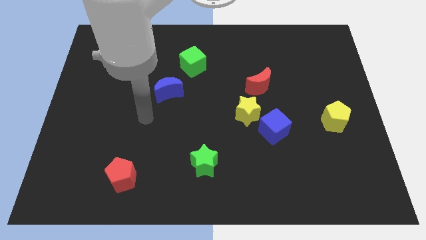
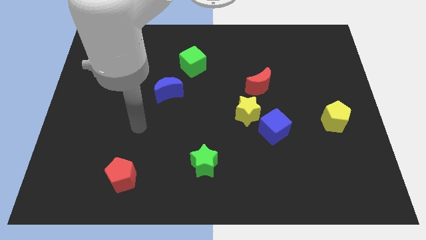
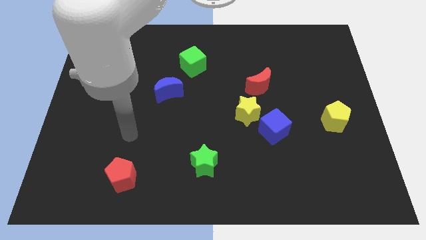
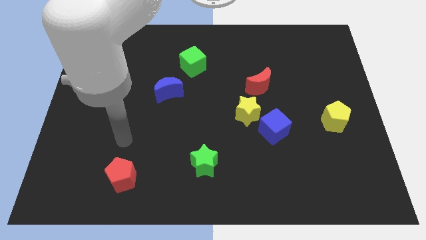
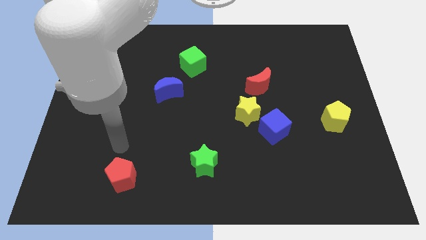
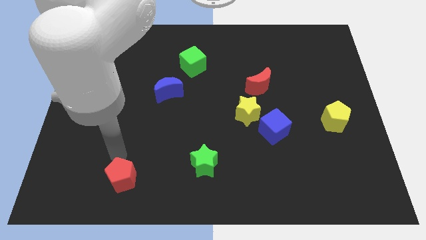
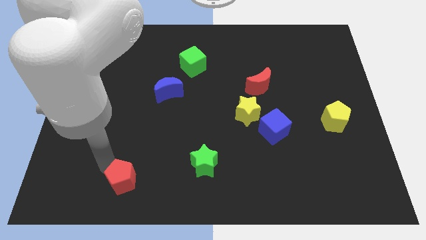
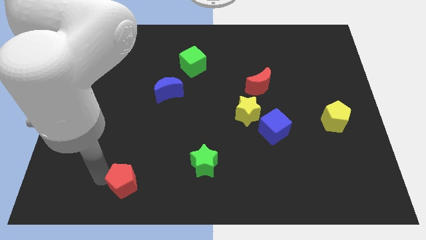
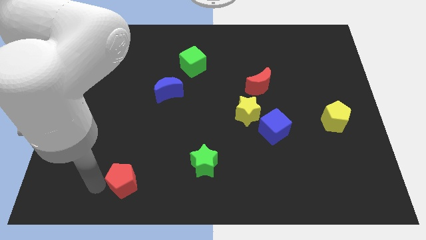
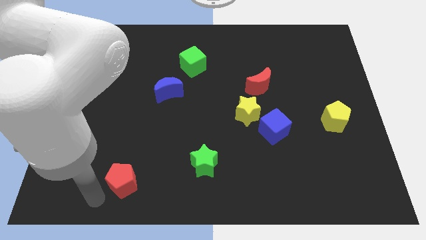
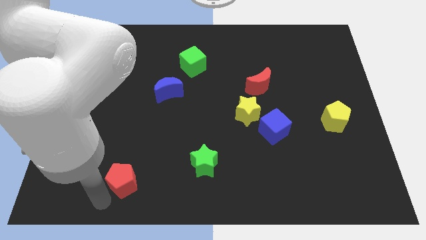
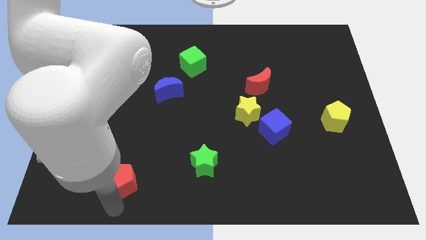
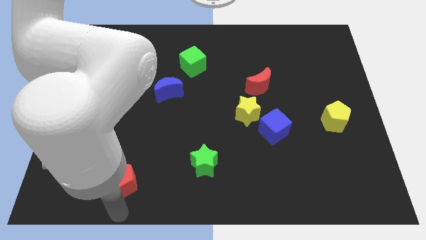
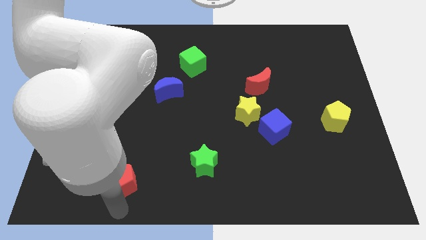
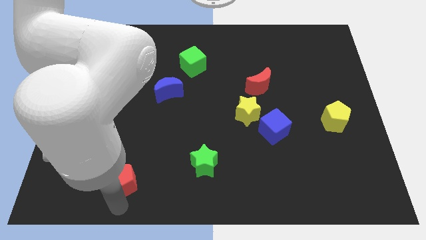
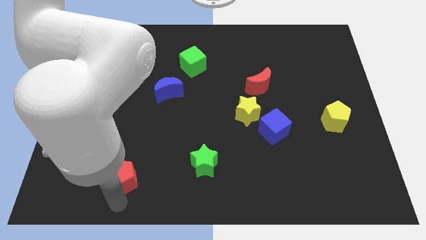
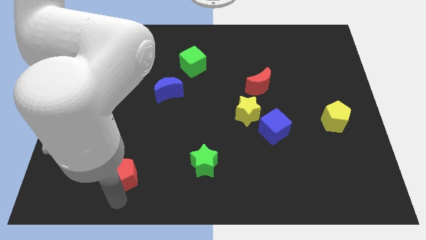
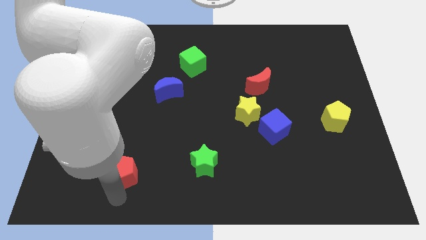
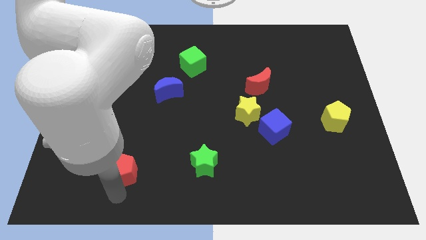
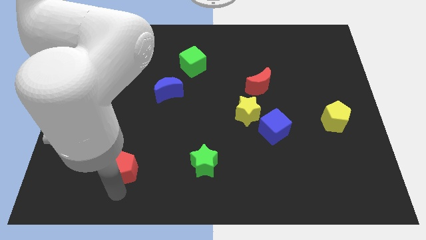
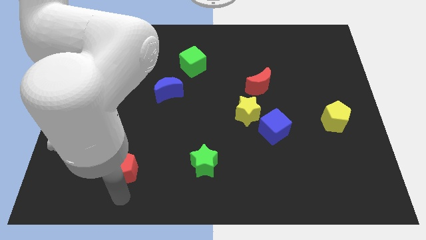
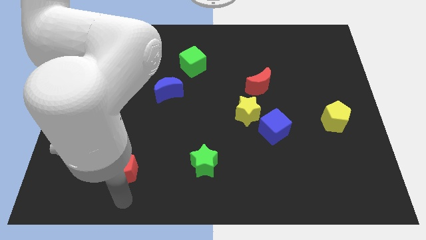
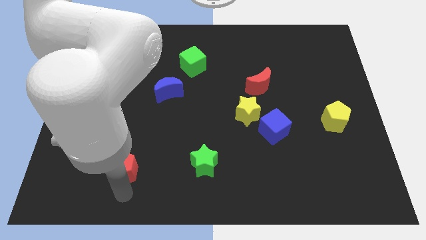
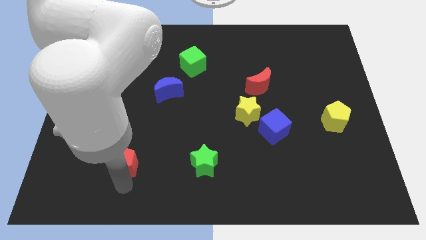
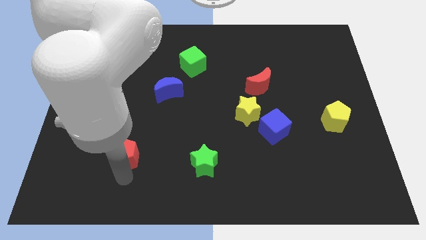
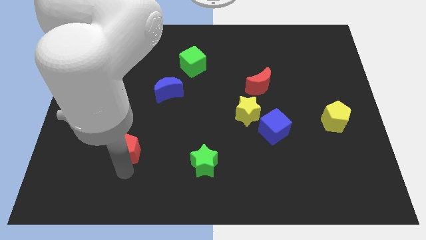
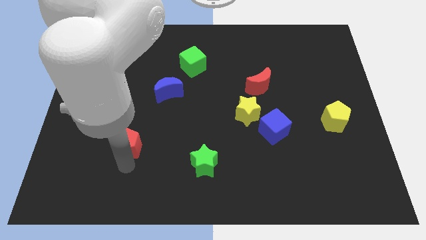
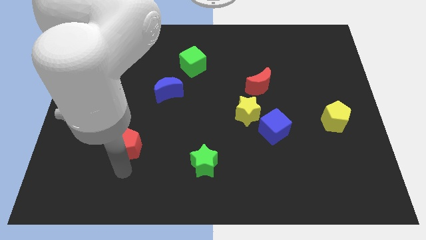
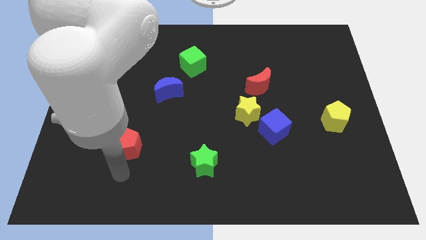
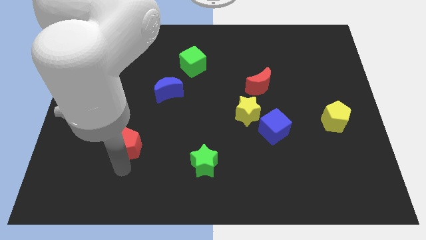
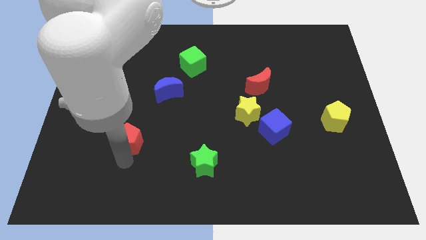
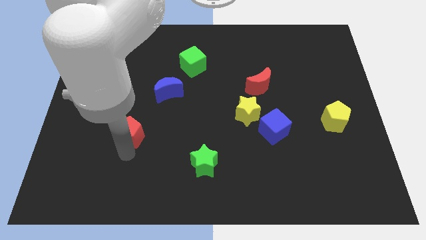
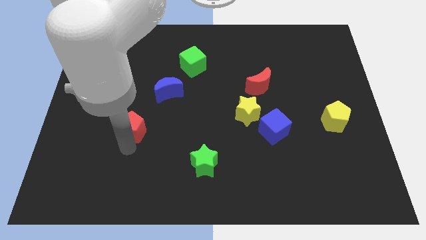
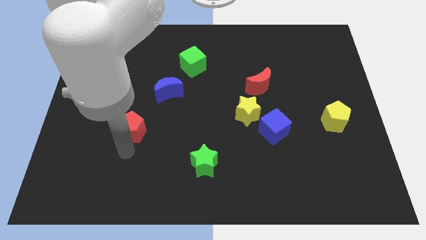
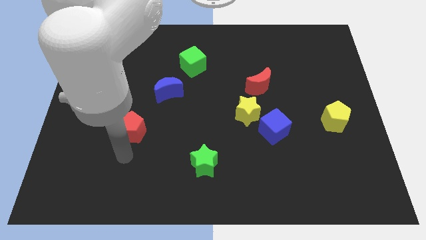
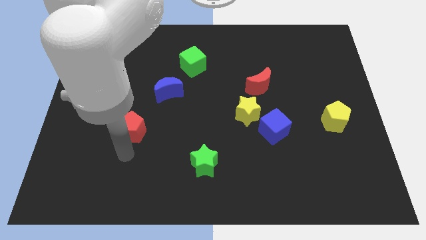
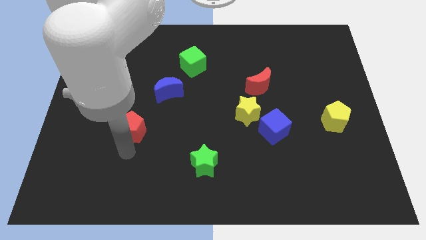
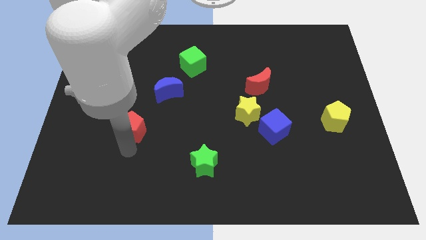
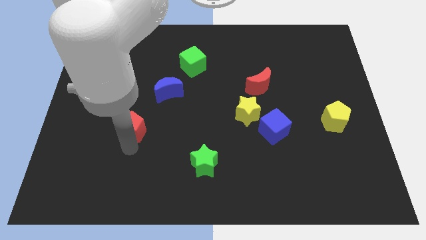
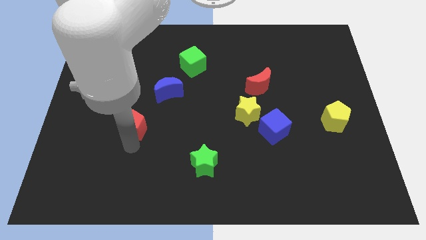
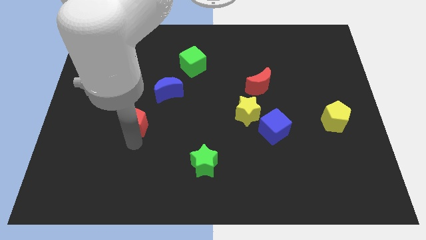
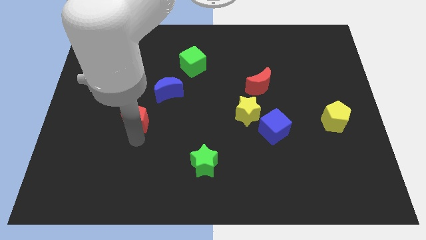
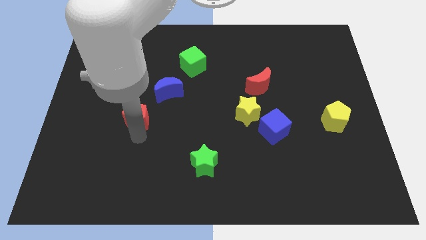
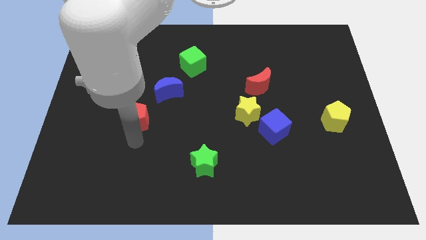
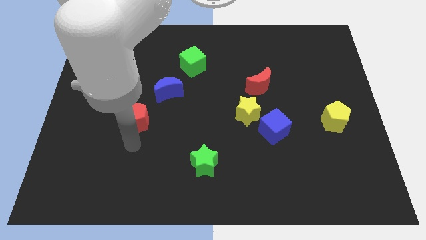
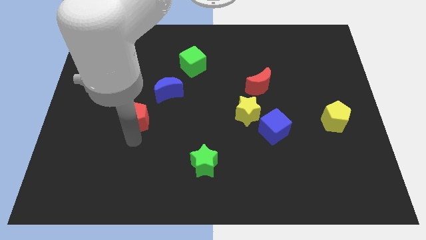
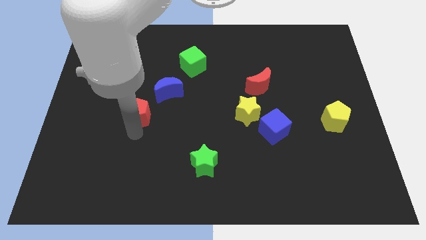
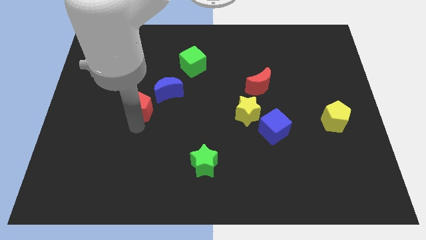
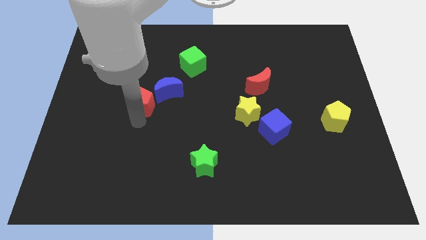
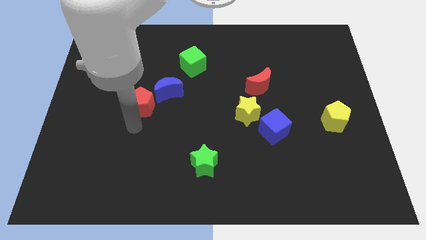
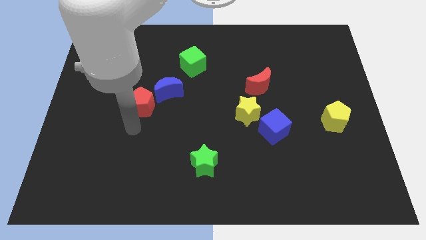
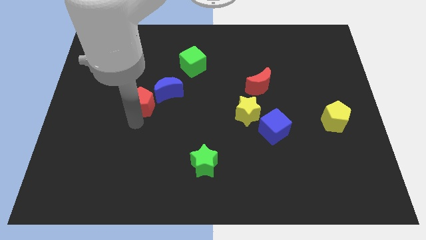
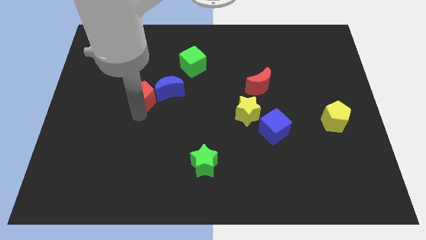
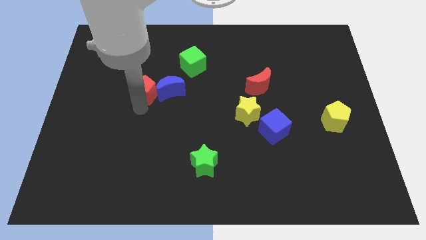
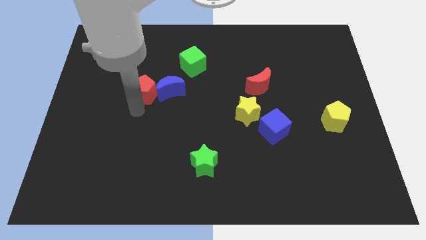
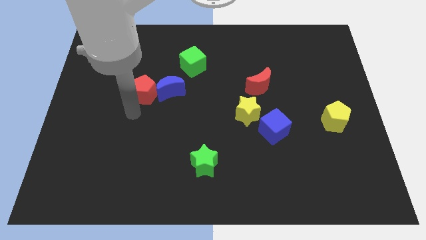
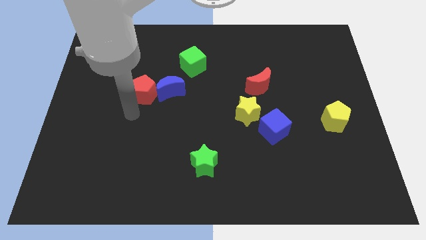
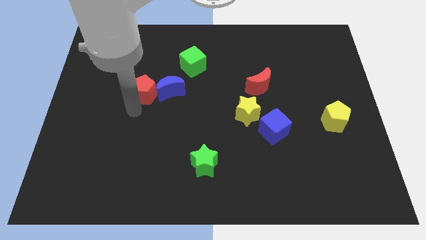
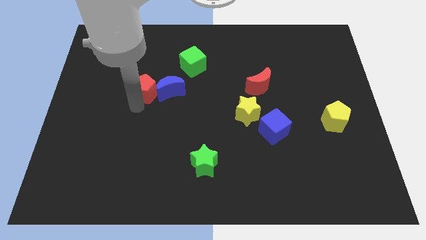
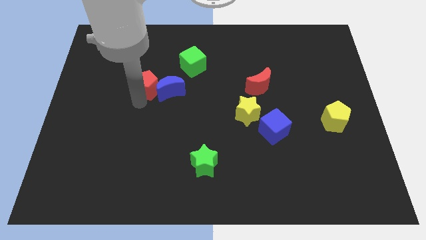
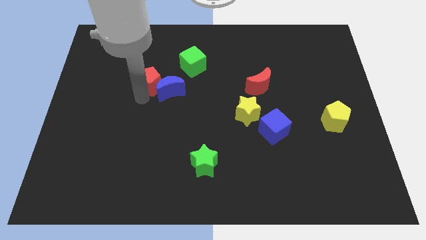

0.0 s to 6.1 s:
move the red pentagon to the bottom left side of the green cube

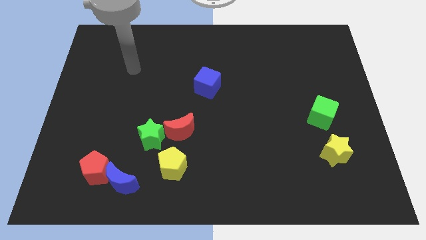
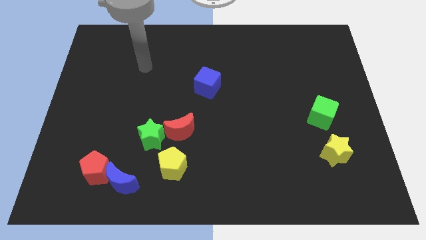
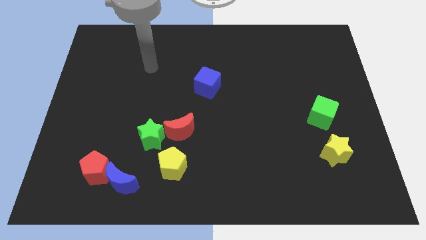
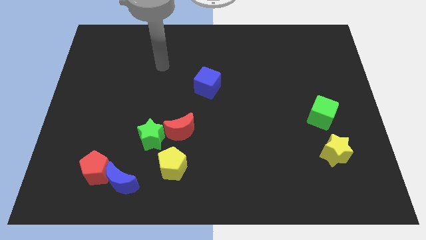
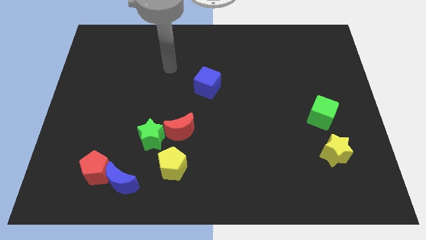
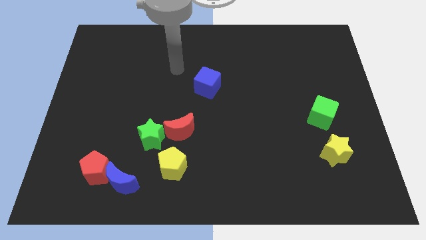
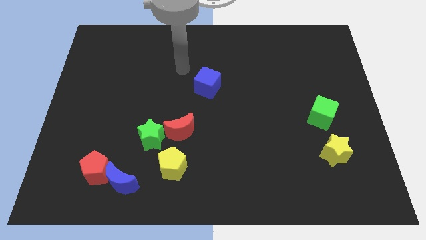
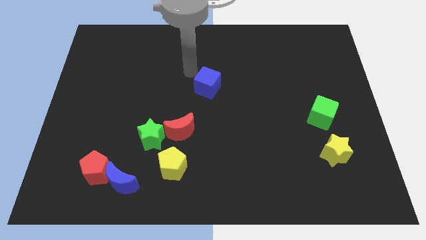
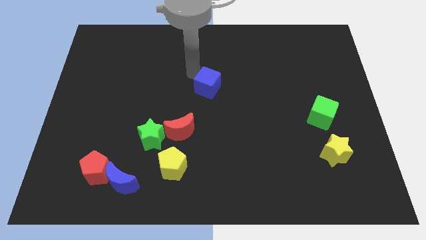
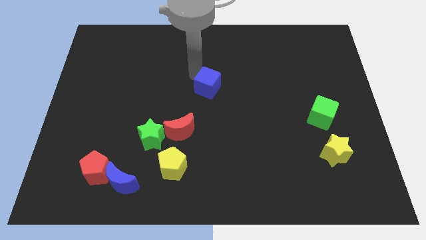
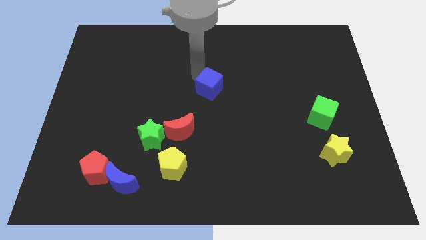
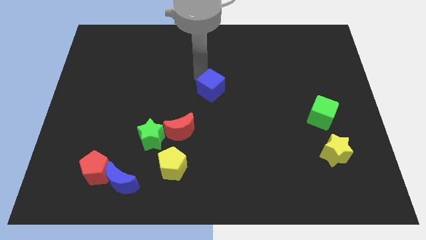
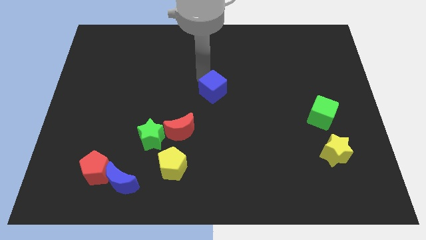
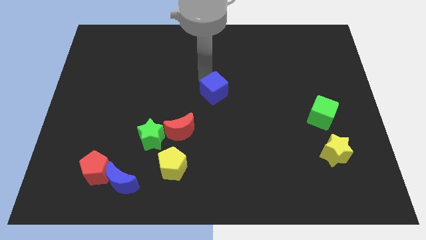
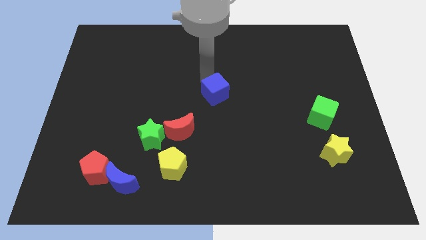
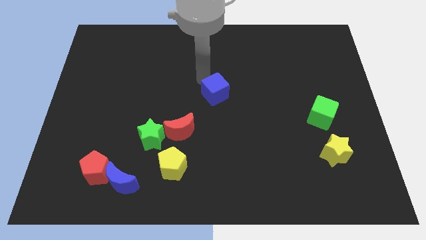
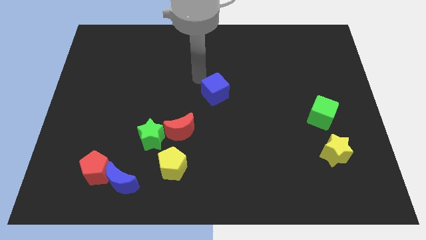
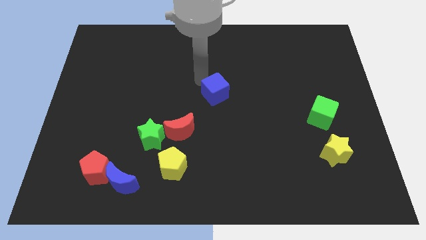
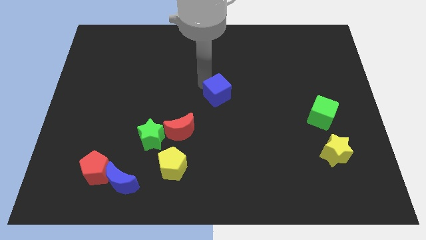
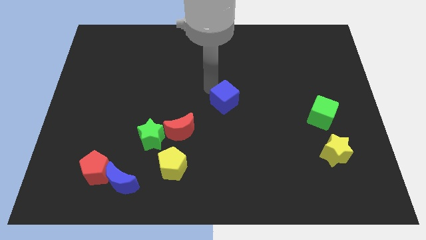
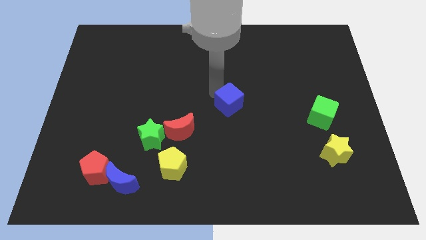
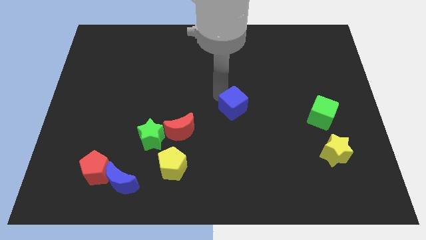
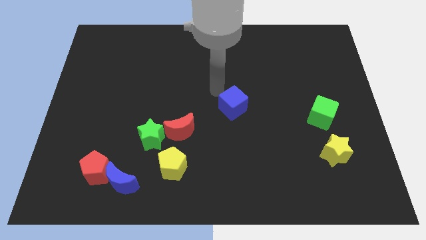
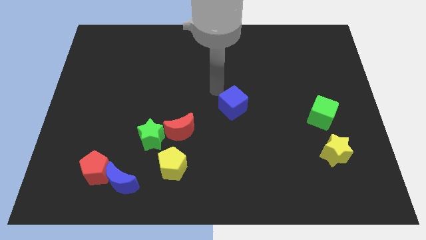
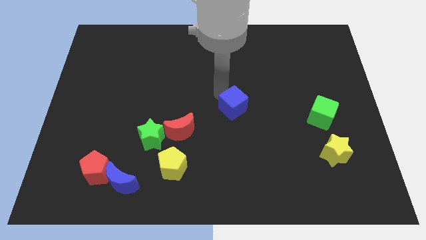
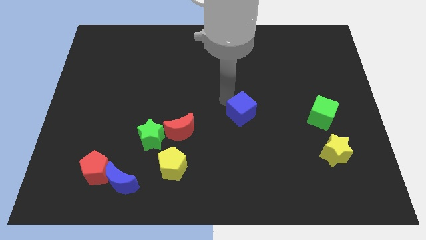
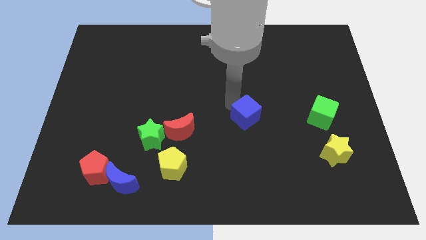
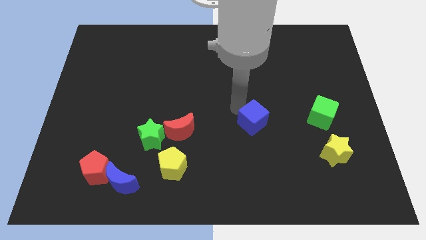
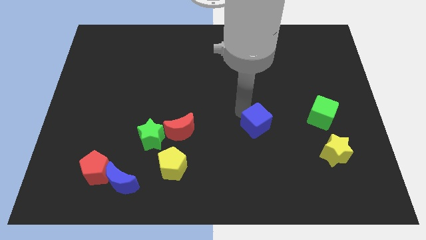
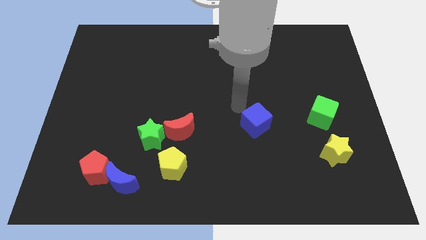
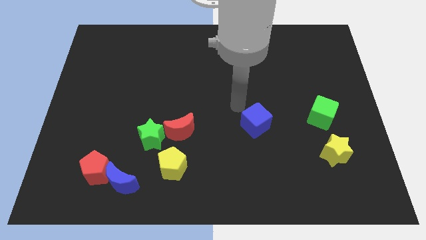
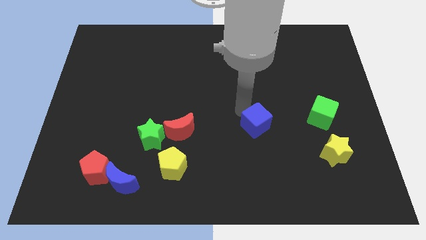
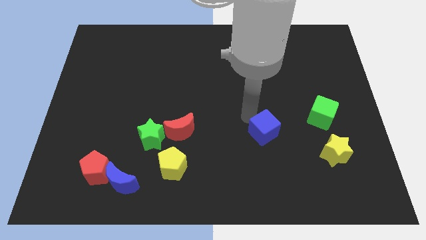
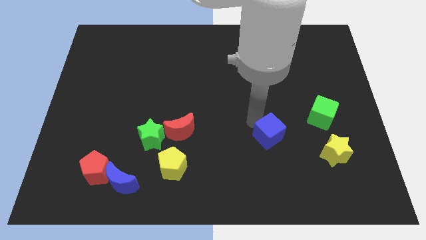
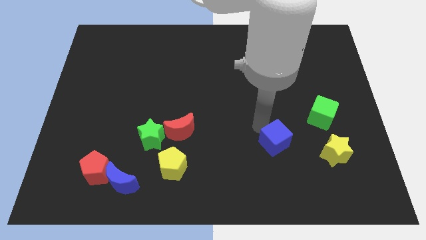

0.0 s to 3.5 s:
push the blue cube to the left of the yellow star
